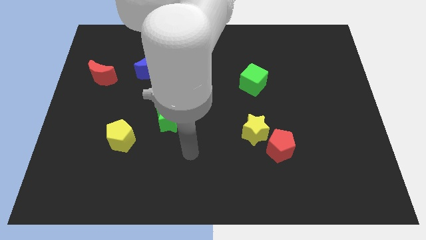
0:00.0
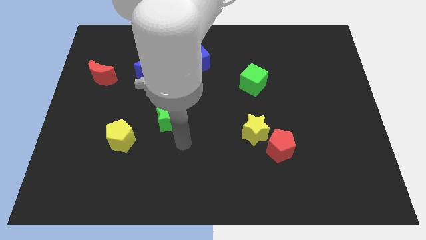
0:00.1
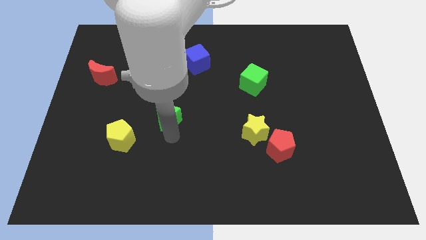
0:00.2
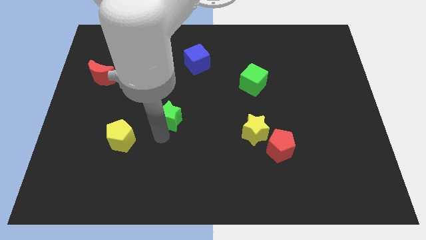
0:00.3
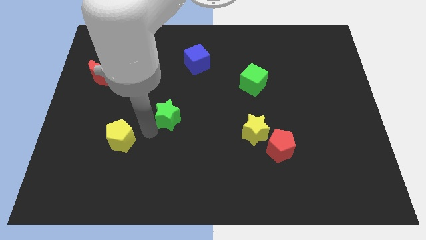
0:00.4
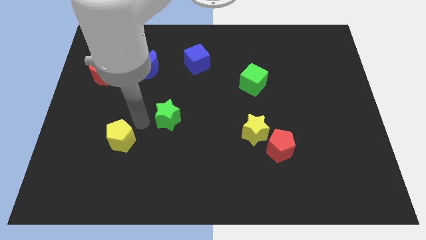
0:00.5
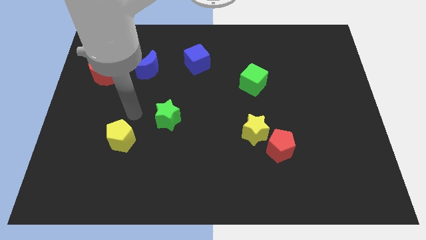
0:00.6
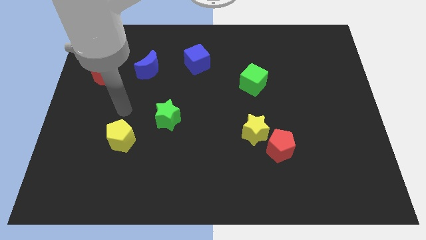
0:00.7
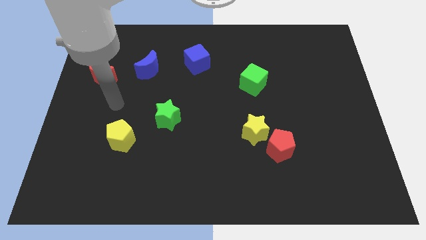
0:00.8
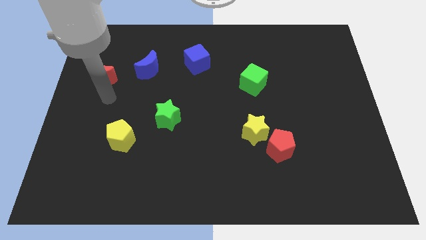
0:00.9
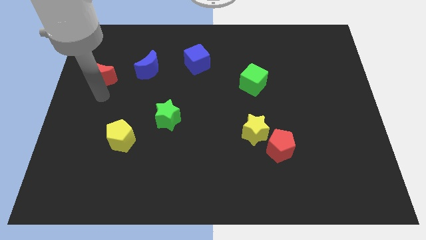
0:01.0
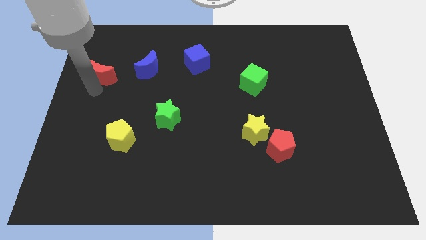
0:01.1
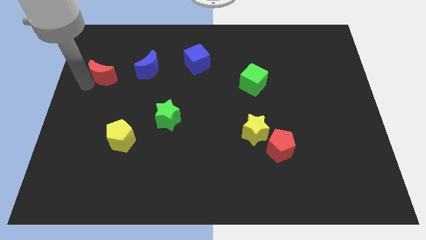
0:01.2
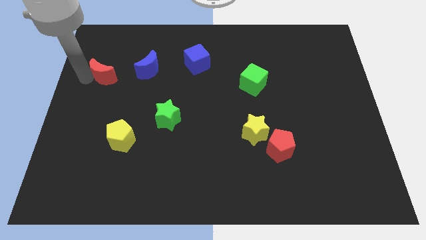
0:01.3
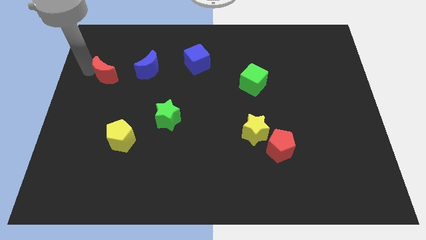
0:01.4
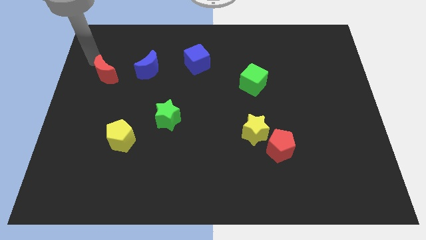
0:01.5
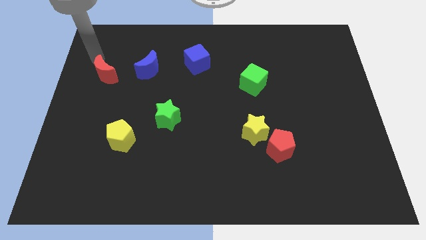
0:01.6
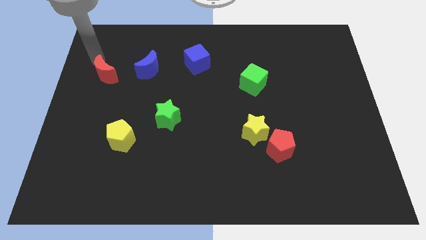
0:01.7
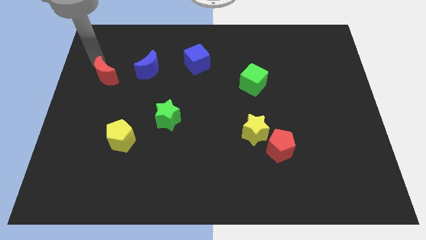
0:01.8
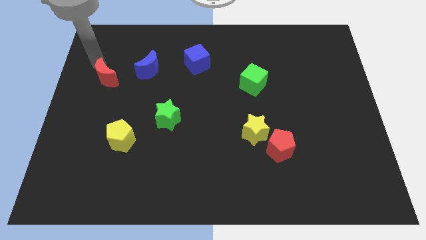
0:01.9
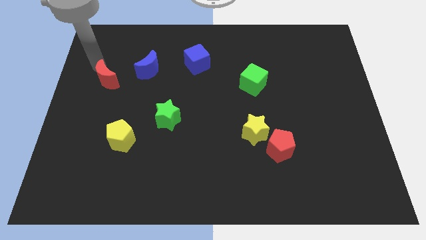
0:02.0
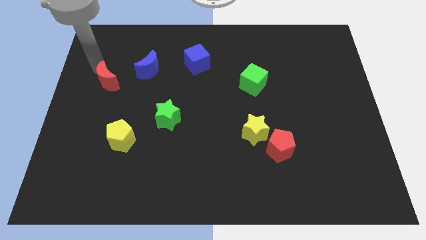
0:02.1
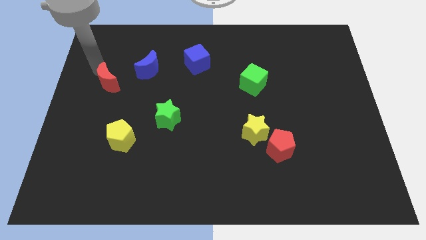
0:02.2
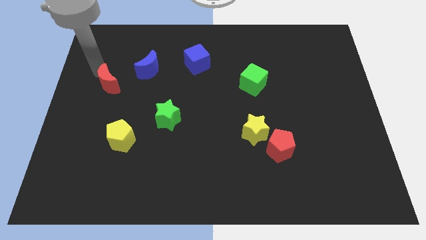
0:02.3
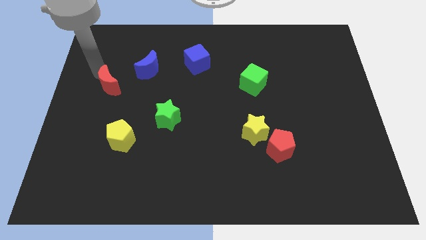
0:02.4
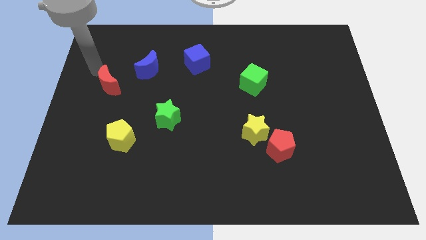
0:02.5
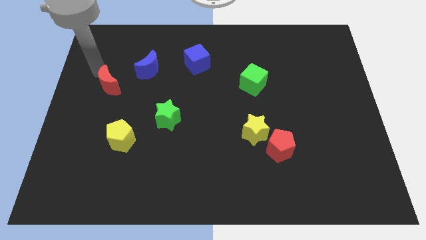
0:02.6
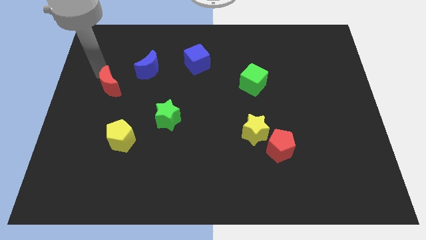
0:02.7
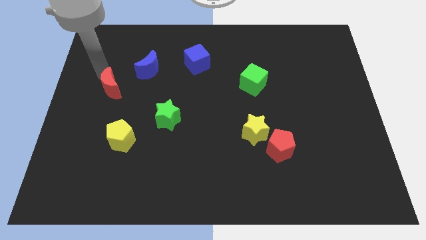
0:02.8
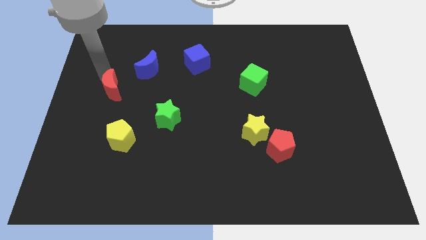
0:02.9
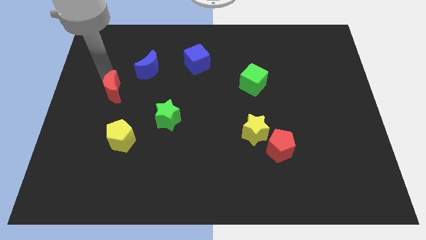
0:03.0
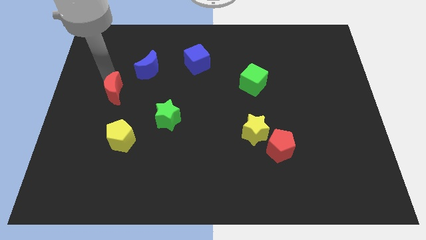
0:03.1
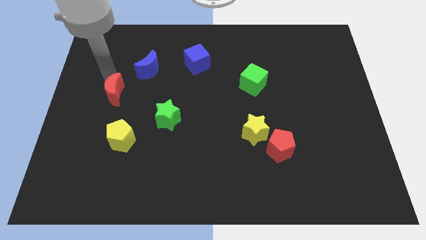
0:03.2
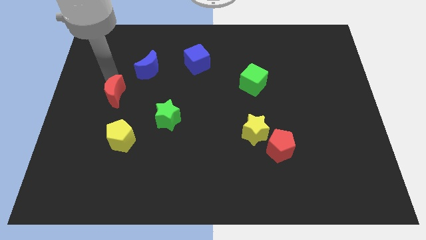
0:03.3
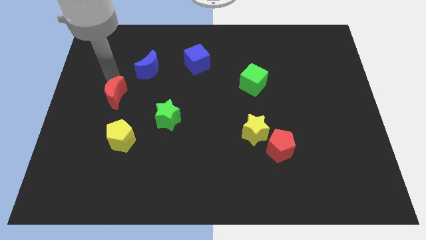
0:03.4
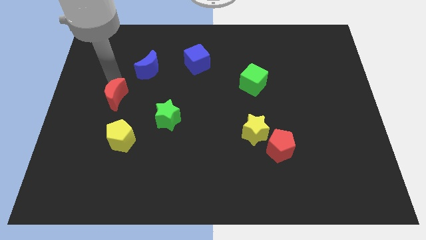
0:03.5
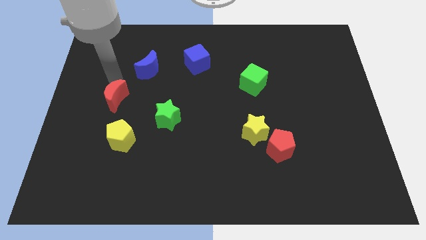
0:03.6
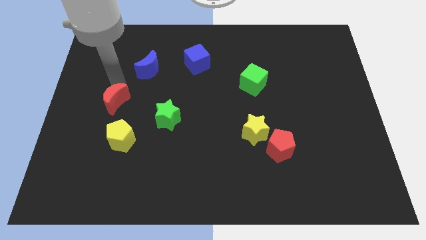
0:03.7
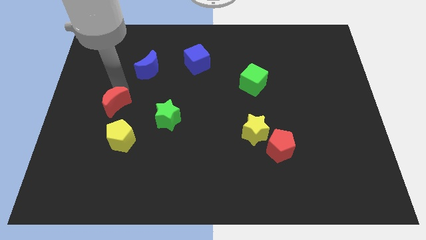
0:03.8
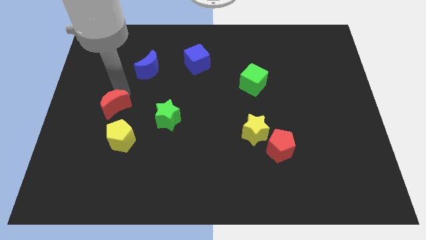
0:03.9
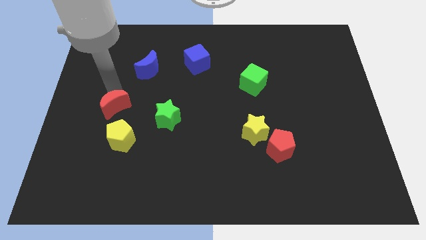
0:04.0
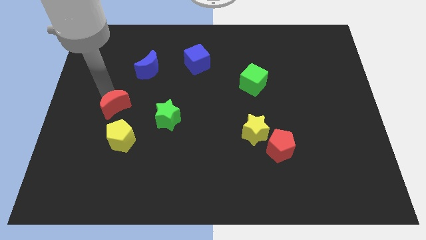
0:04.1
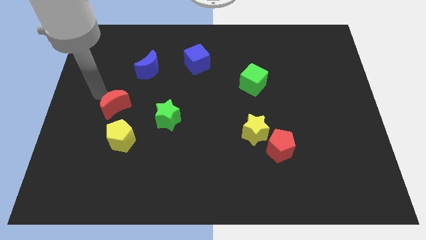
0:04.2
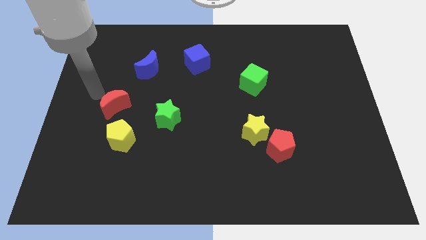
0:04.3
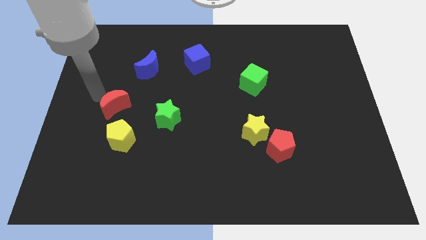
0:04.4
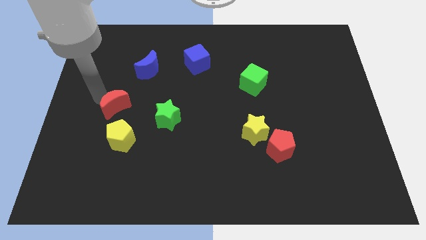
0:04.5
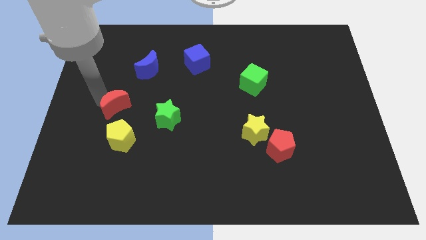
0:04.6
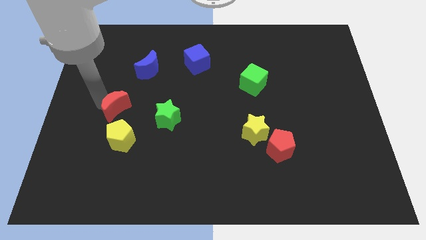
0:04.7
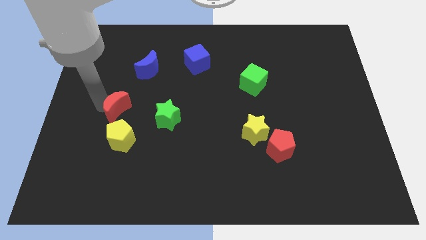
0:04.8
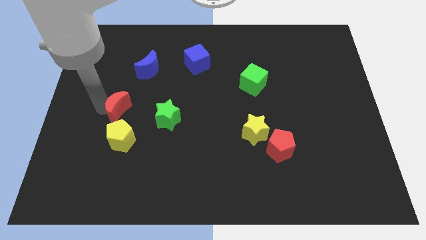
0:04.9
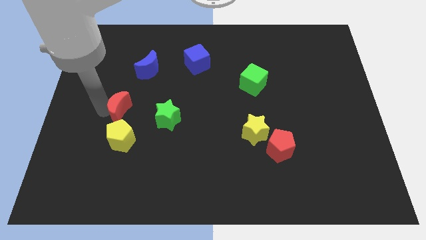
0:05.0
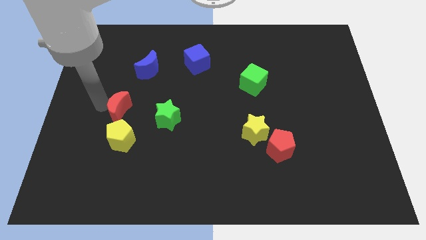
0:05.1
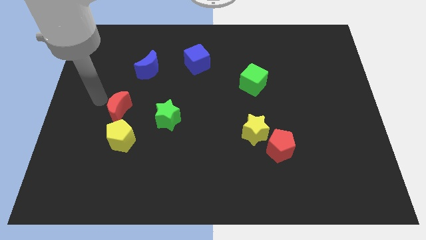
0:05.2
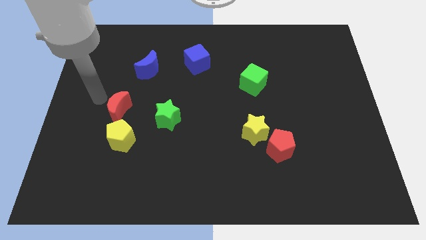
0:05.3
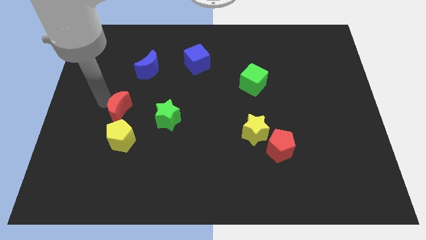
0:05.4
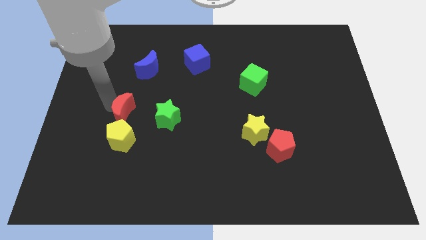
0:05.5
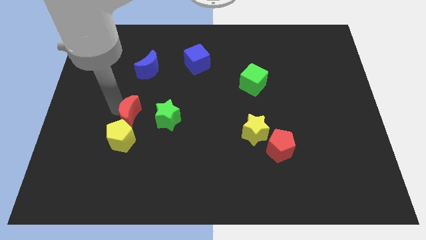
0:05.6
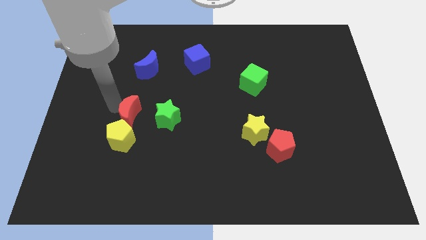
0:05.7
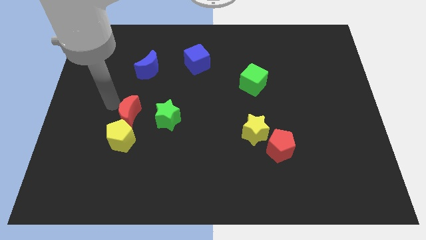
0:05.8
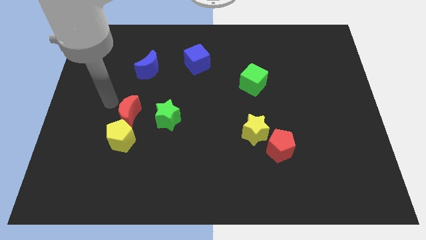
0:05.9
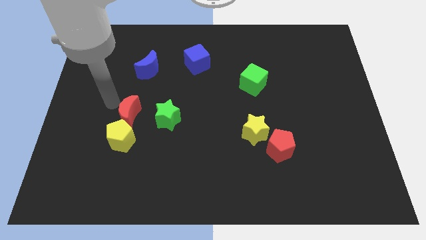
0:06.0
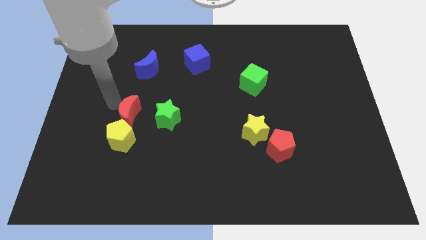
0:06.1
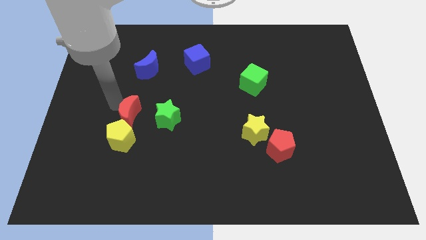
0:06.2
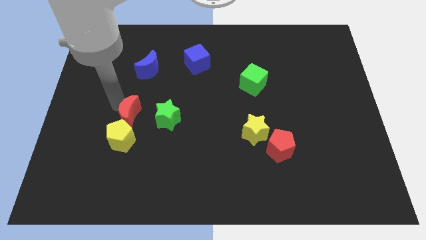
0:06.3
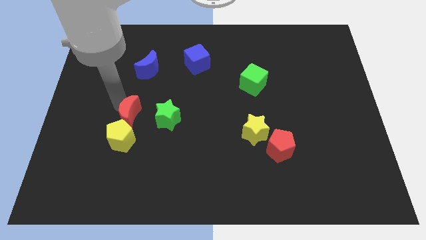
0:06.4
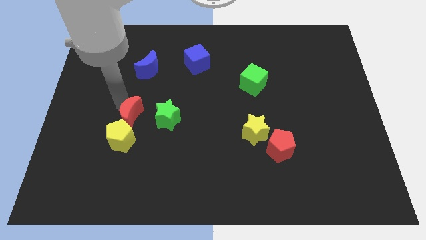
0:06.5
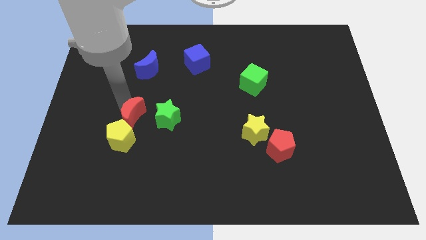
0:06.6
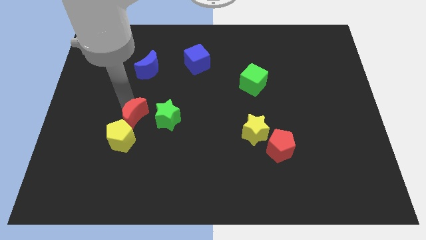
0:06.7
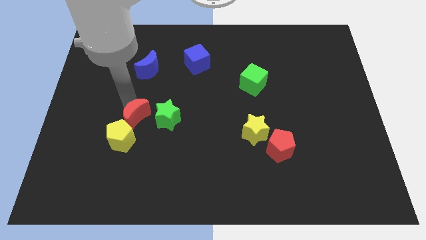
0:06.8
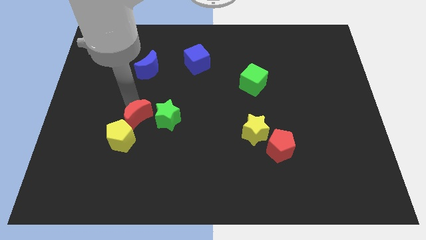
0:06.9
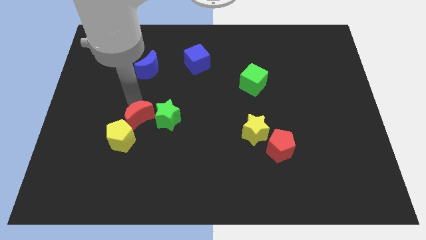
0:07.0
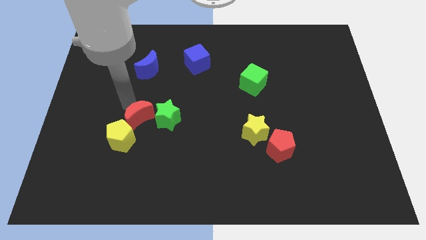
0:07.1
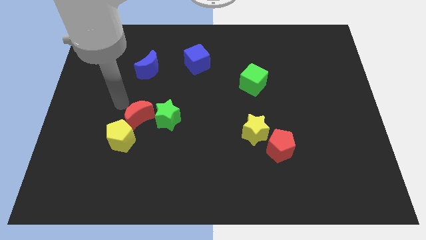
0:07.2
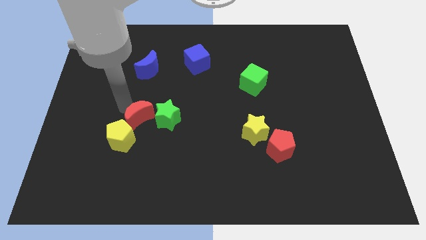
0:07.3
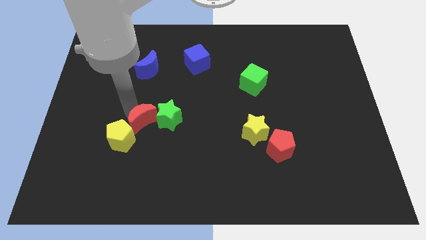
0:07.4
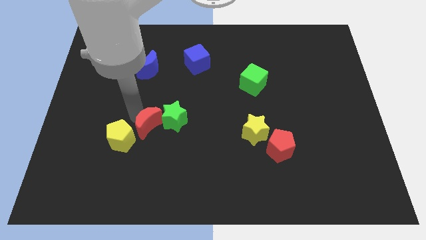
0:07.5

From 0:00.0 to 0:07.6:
move the red moon down and to the right diagonally

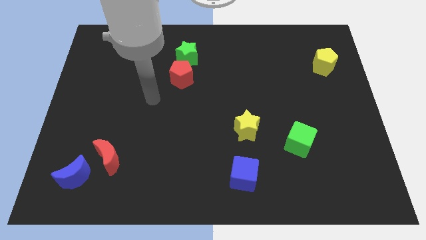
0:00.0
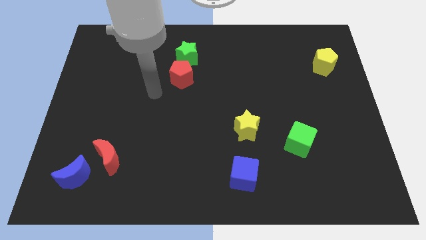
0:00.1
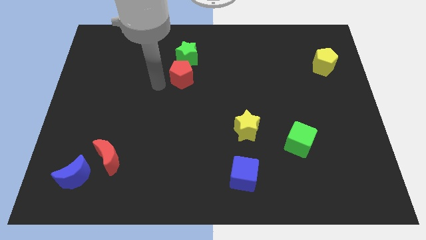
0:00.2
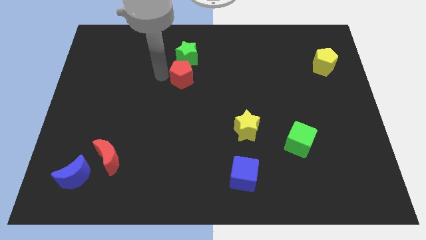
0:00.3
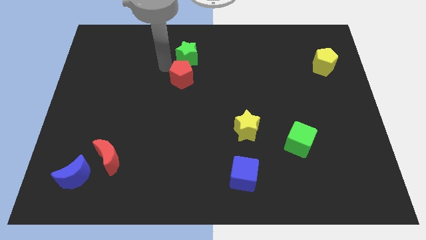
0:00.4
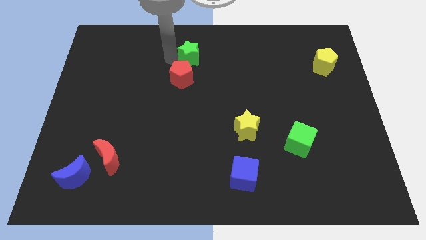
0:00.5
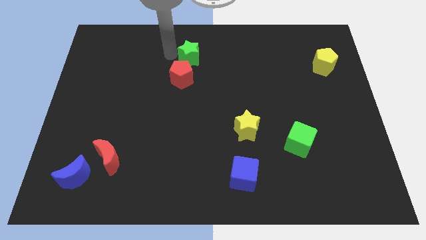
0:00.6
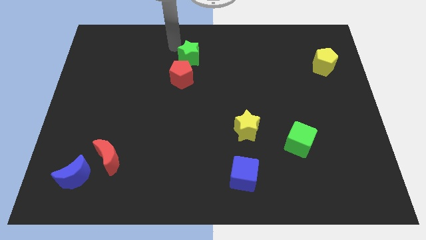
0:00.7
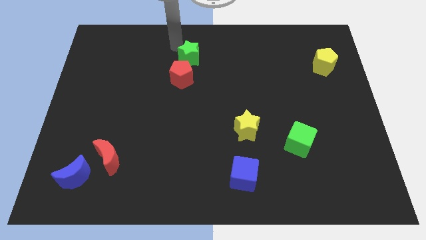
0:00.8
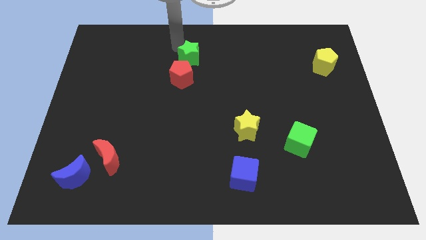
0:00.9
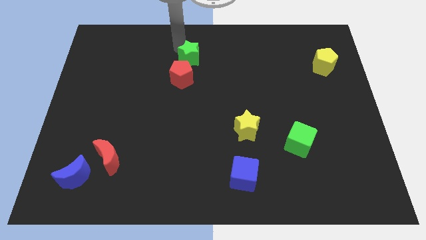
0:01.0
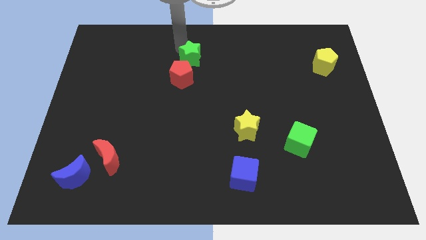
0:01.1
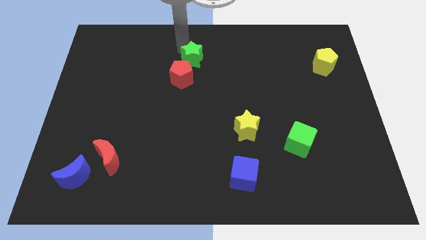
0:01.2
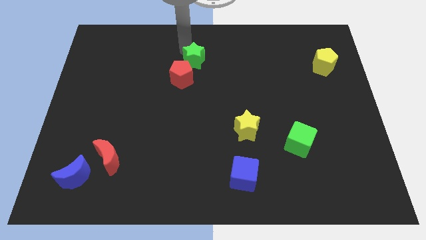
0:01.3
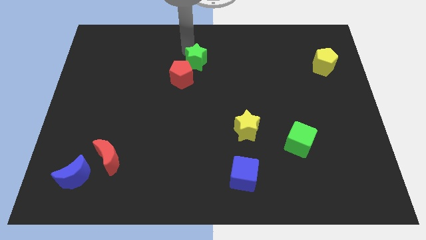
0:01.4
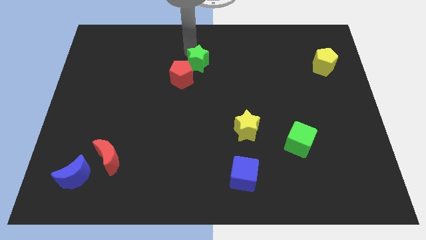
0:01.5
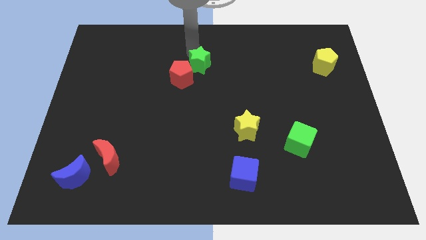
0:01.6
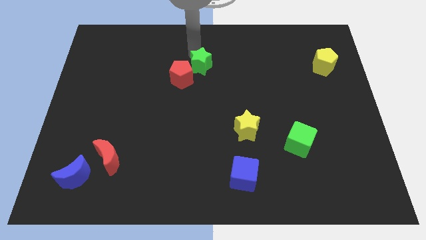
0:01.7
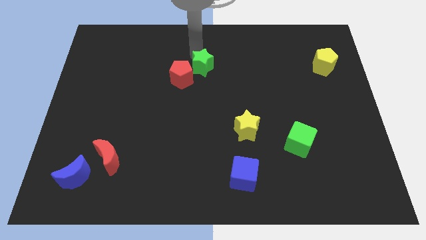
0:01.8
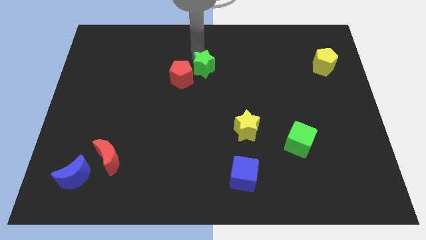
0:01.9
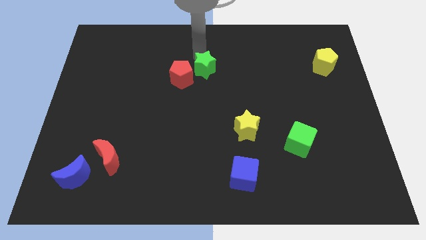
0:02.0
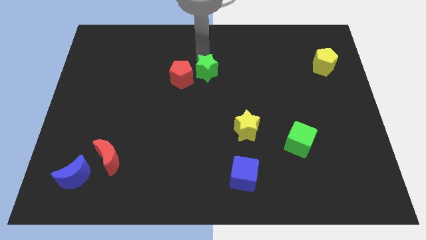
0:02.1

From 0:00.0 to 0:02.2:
slightly slide the green star down and then to the right
